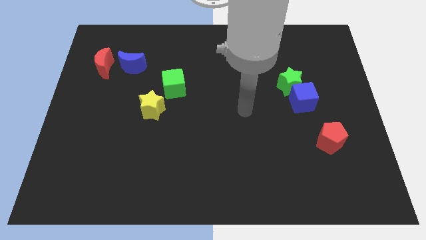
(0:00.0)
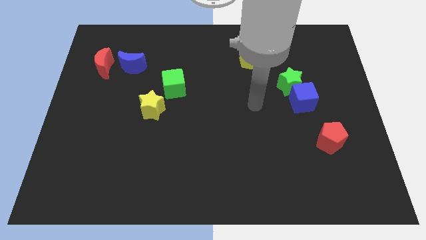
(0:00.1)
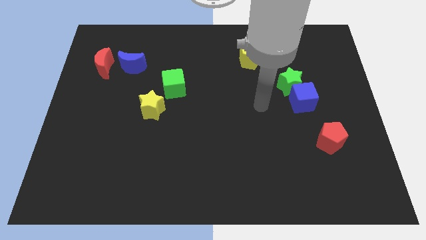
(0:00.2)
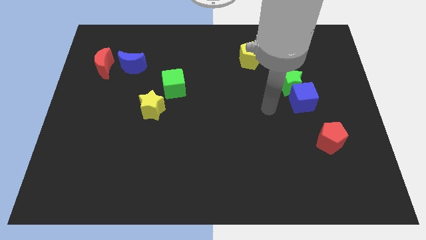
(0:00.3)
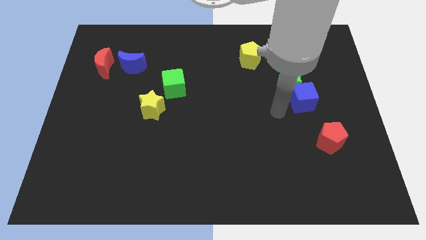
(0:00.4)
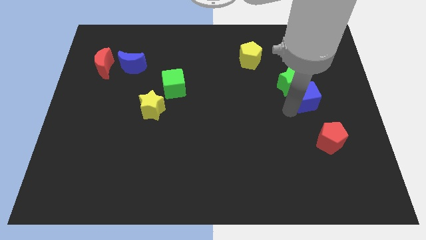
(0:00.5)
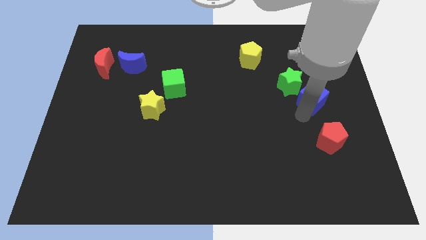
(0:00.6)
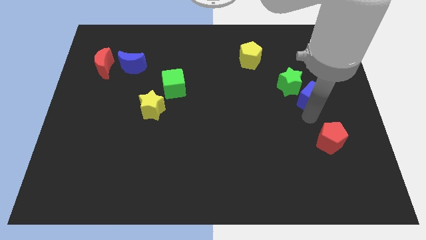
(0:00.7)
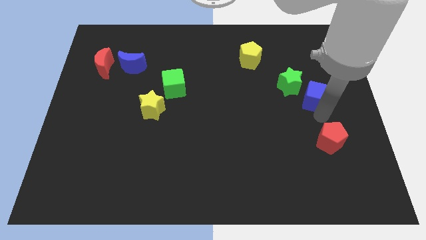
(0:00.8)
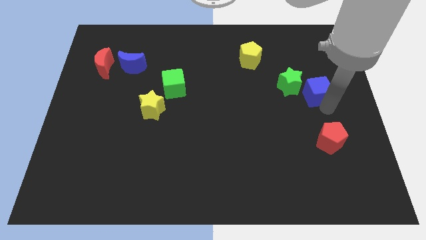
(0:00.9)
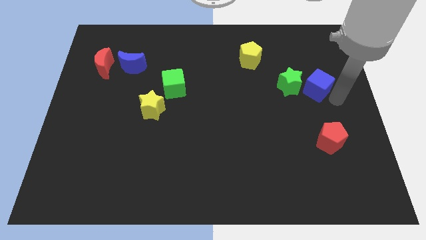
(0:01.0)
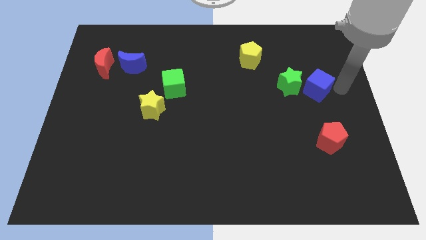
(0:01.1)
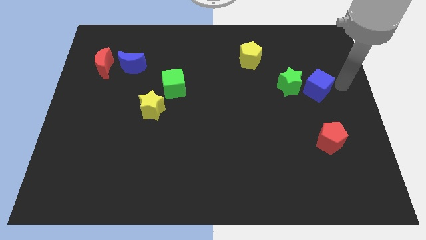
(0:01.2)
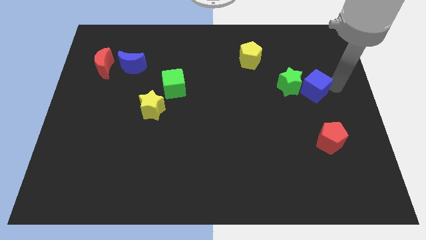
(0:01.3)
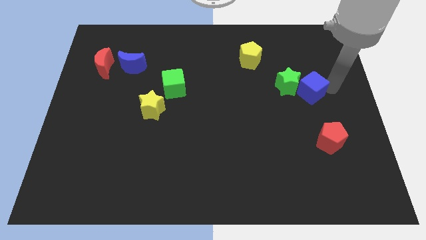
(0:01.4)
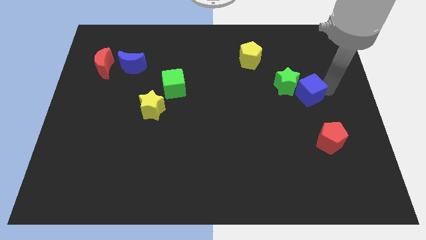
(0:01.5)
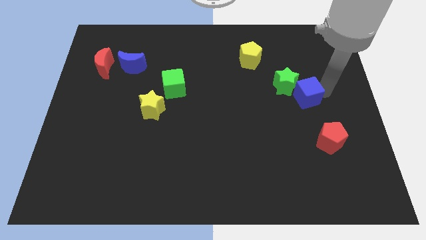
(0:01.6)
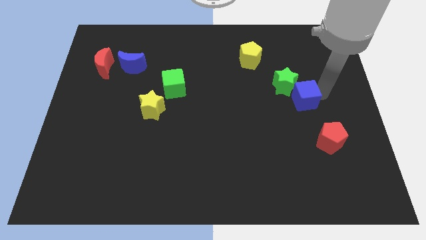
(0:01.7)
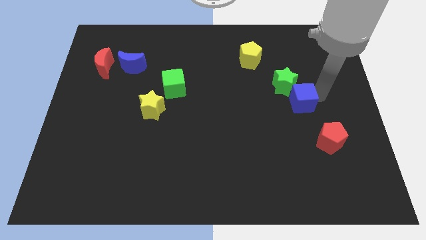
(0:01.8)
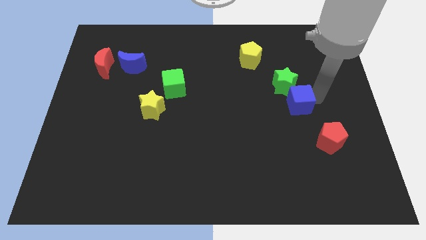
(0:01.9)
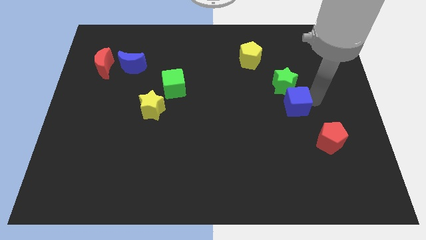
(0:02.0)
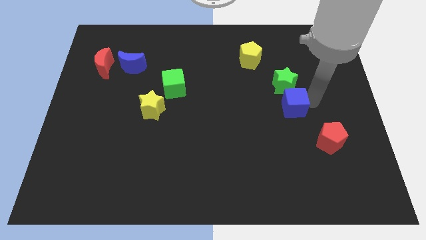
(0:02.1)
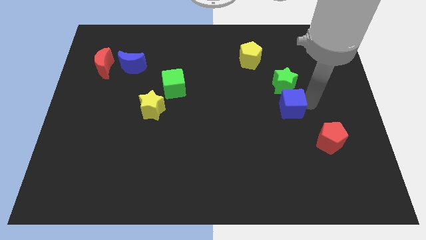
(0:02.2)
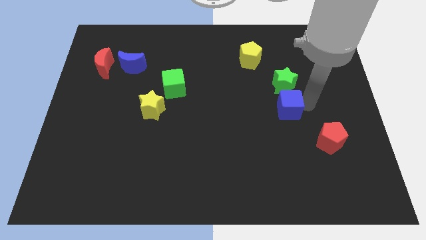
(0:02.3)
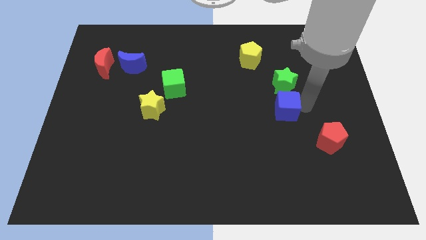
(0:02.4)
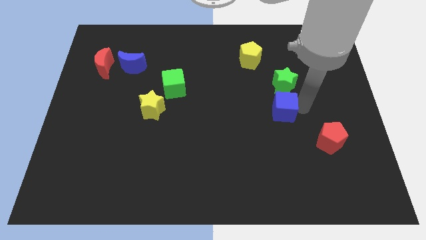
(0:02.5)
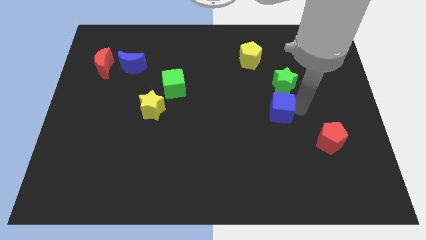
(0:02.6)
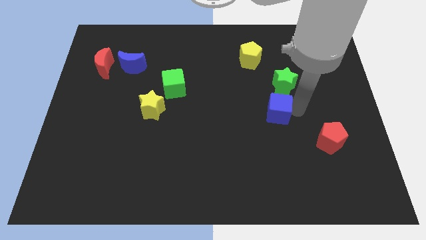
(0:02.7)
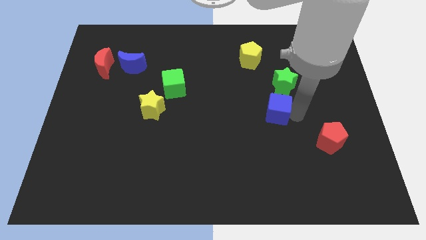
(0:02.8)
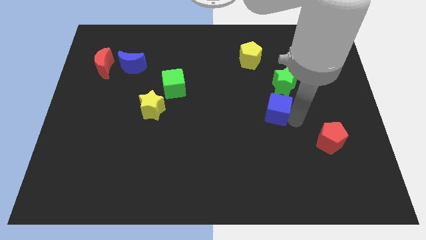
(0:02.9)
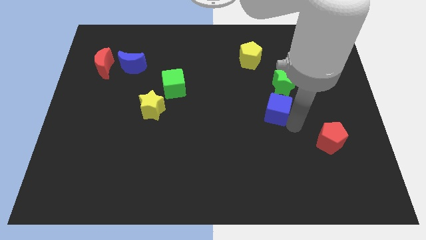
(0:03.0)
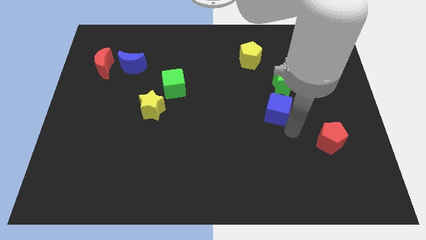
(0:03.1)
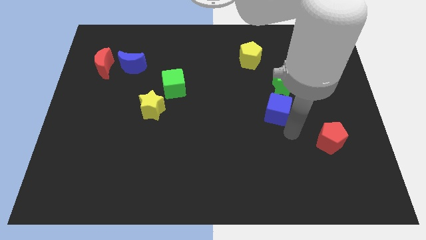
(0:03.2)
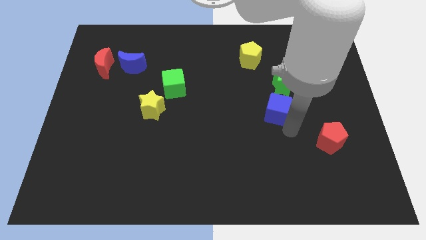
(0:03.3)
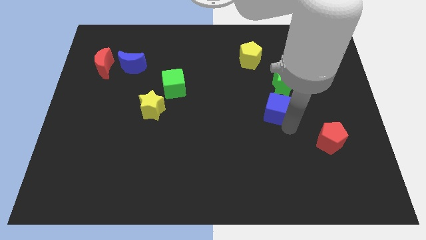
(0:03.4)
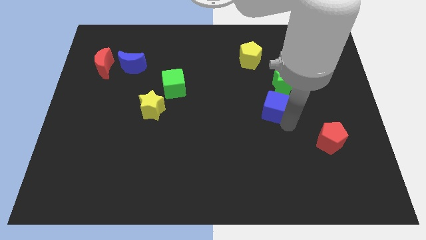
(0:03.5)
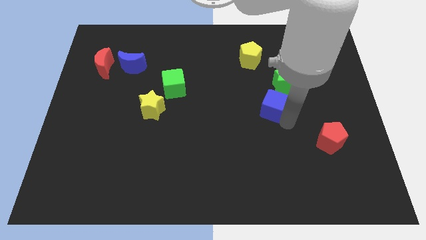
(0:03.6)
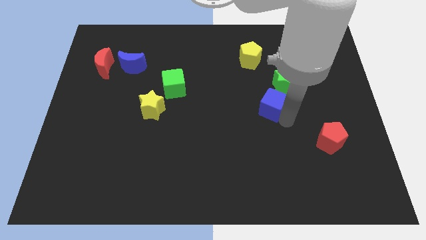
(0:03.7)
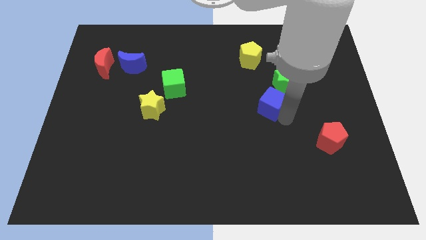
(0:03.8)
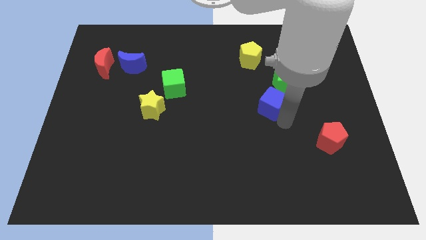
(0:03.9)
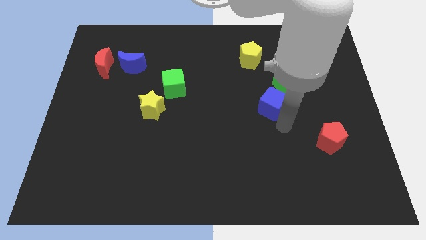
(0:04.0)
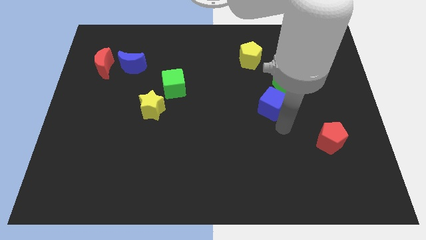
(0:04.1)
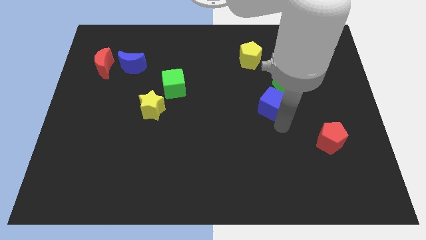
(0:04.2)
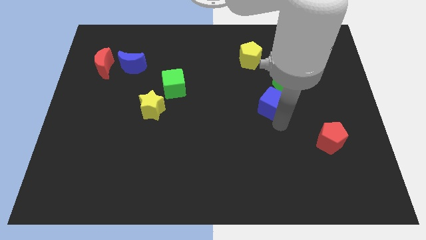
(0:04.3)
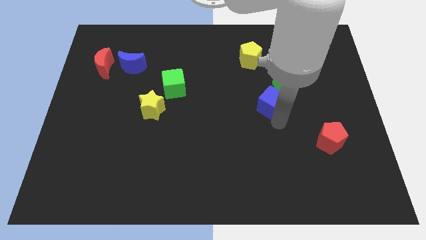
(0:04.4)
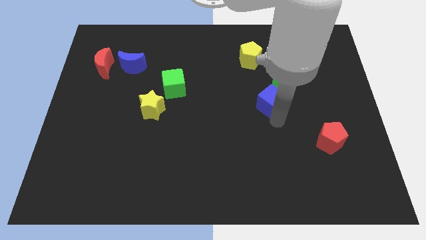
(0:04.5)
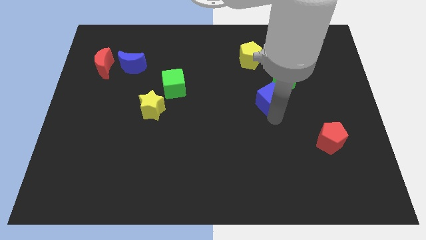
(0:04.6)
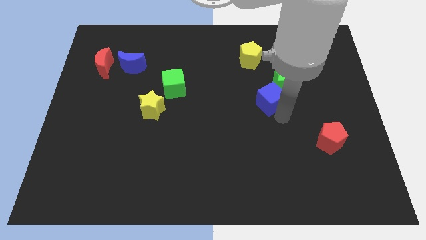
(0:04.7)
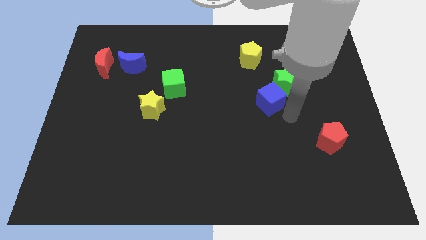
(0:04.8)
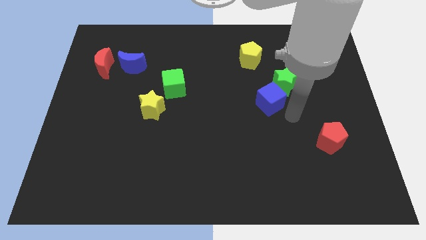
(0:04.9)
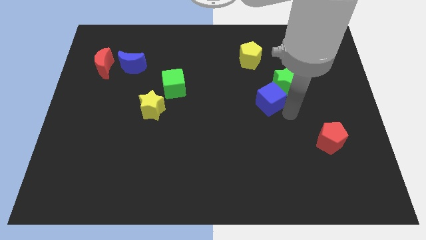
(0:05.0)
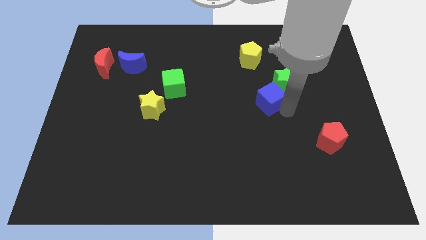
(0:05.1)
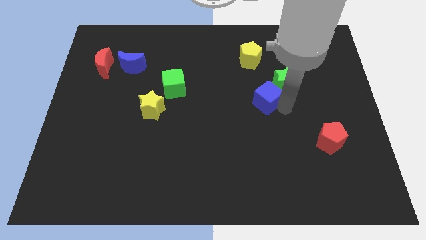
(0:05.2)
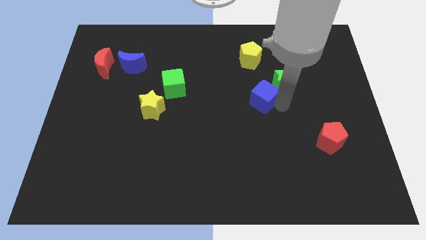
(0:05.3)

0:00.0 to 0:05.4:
push the blue cube to the left side of the green star

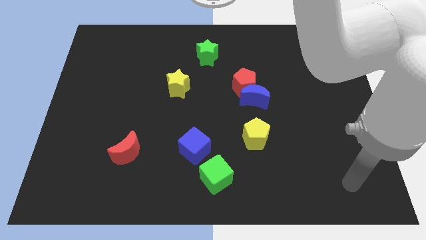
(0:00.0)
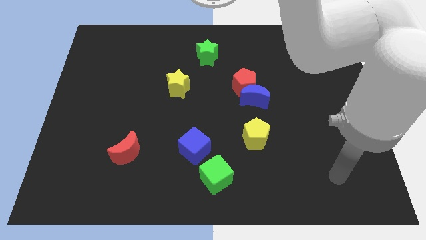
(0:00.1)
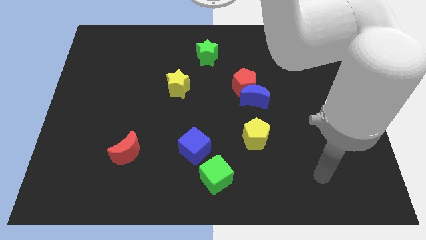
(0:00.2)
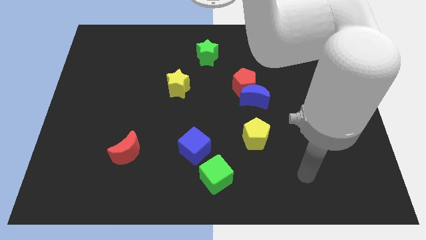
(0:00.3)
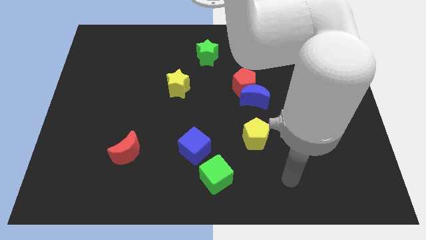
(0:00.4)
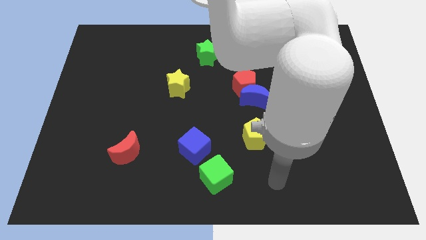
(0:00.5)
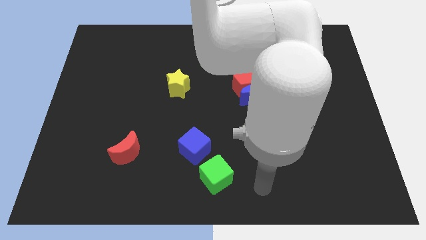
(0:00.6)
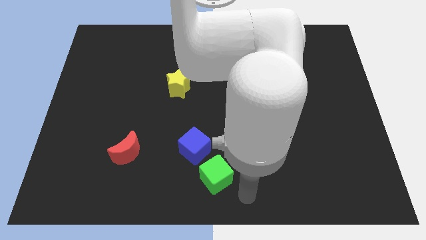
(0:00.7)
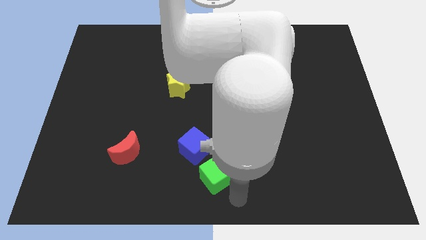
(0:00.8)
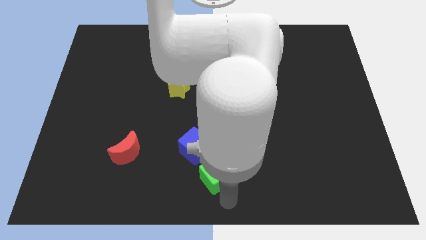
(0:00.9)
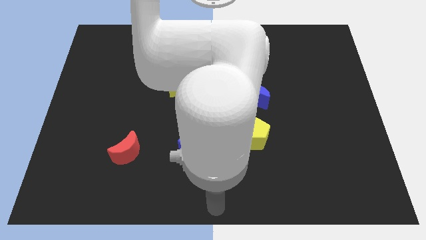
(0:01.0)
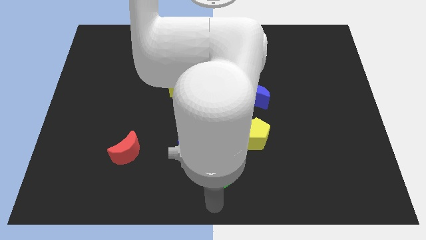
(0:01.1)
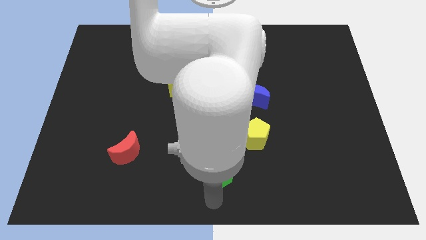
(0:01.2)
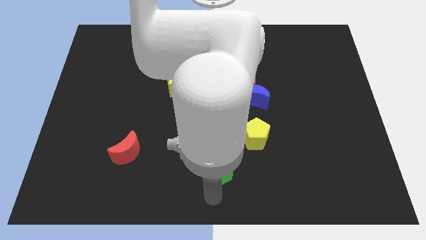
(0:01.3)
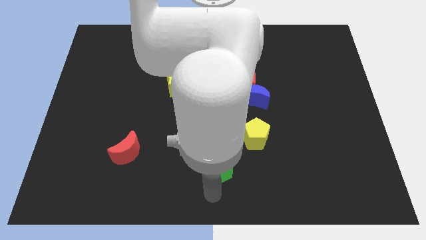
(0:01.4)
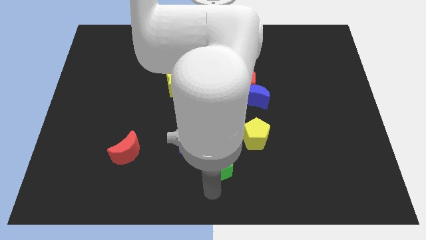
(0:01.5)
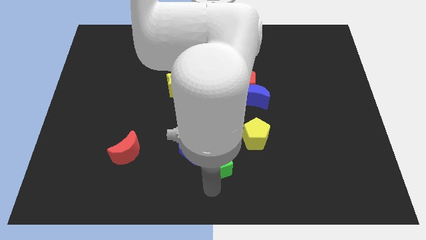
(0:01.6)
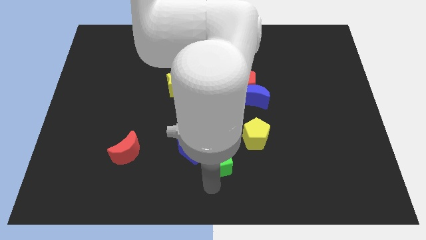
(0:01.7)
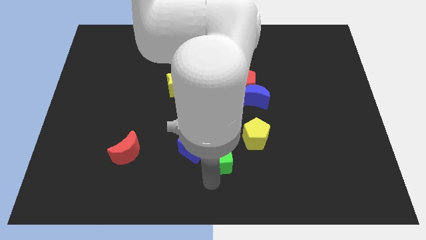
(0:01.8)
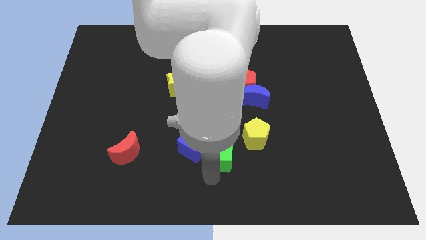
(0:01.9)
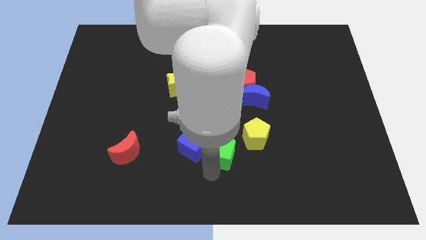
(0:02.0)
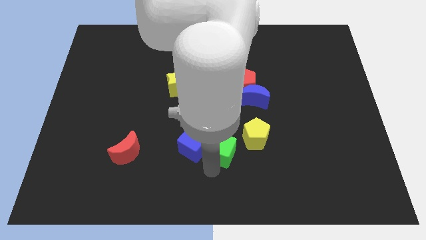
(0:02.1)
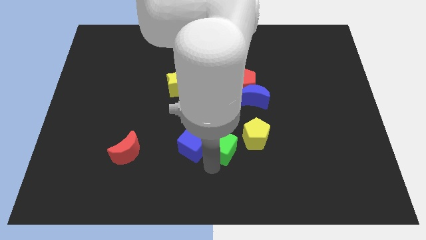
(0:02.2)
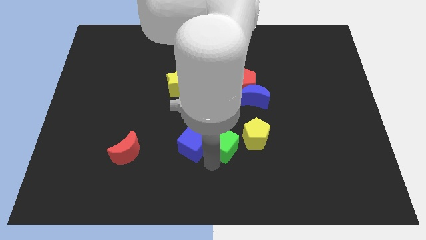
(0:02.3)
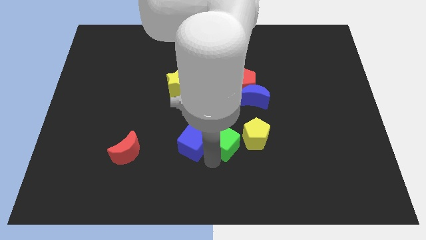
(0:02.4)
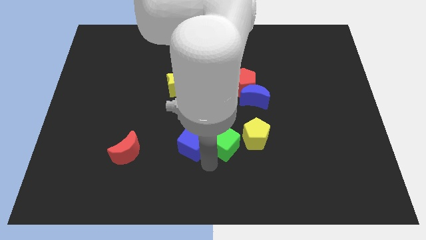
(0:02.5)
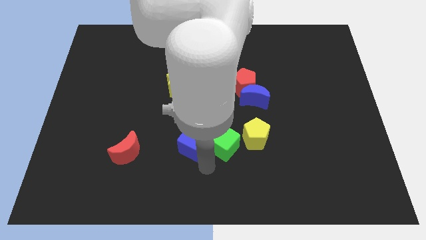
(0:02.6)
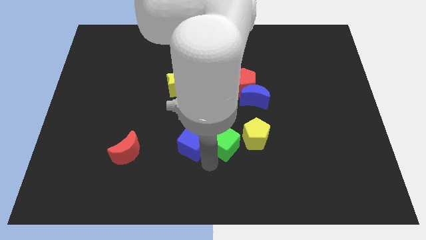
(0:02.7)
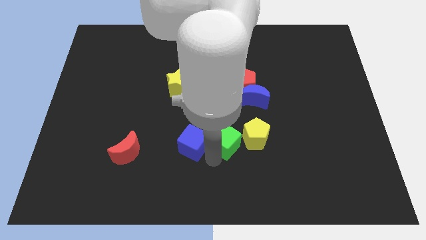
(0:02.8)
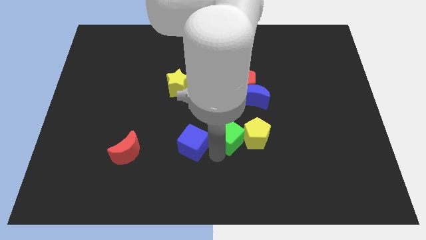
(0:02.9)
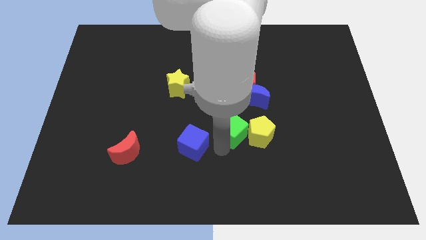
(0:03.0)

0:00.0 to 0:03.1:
slide the green cube to the bottom side of the red pentagon

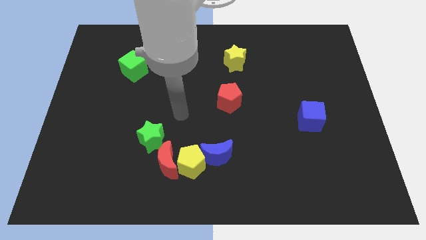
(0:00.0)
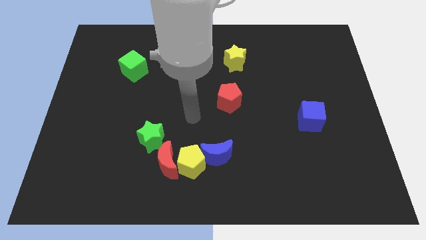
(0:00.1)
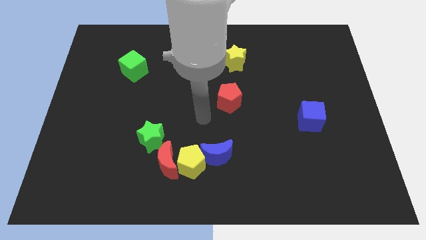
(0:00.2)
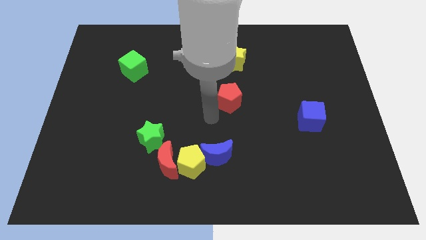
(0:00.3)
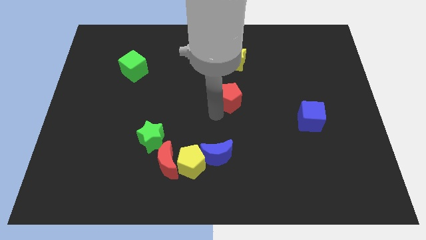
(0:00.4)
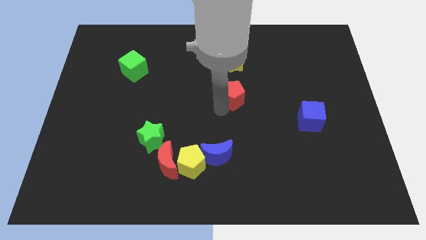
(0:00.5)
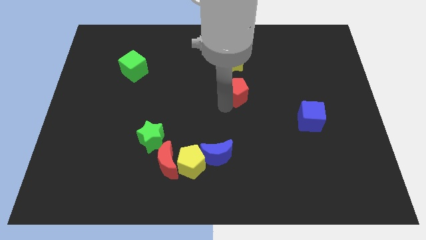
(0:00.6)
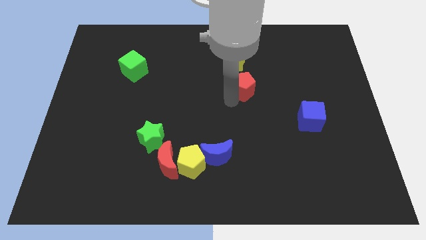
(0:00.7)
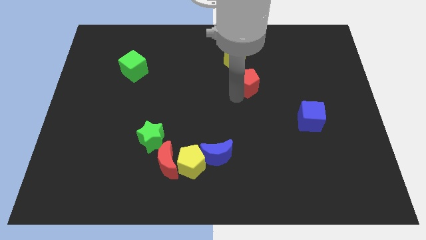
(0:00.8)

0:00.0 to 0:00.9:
put the red pentagon to the bottom right of the yellow star
